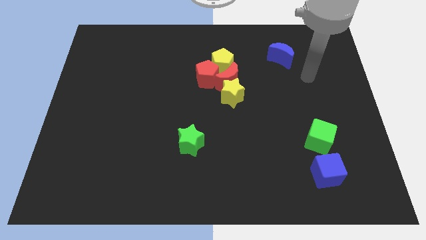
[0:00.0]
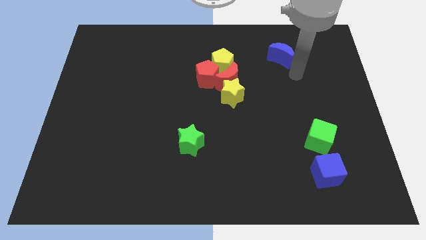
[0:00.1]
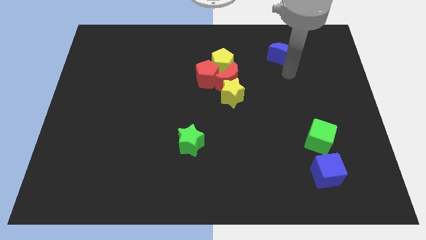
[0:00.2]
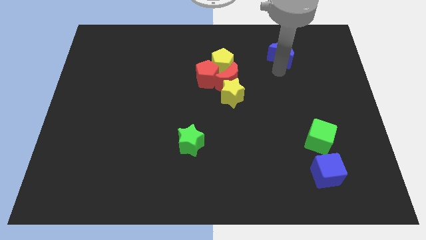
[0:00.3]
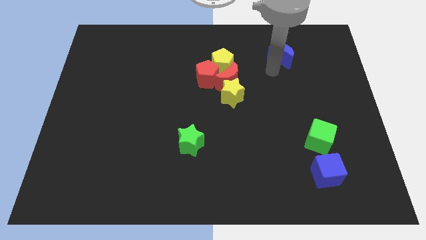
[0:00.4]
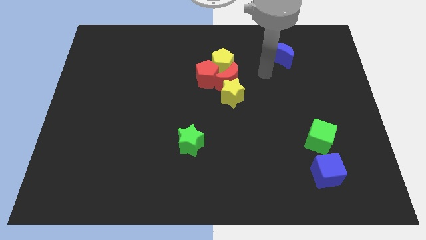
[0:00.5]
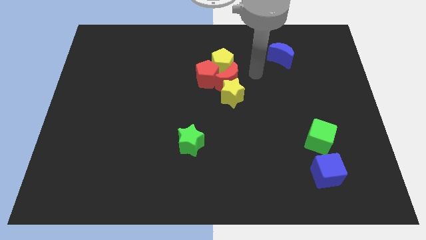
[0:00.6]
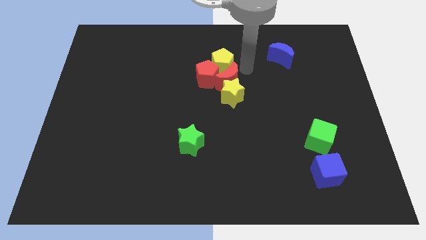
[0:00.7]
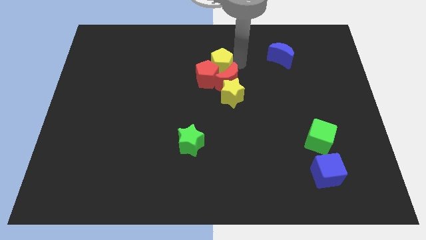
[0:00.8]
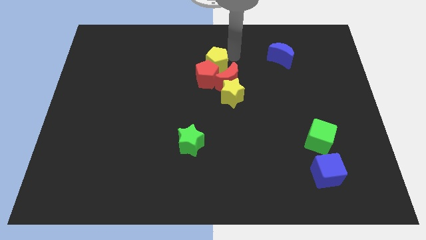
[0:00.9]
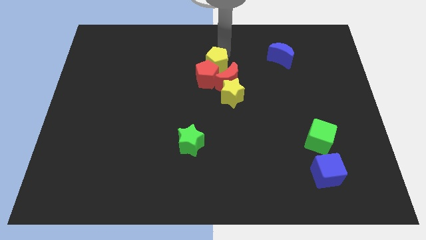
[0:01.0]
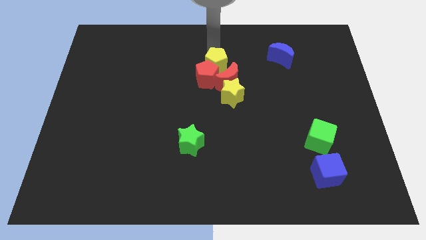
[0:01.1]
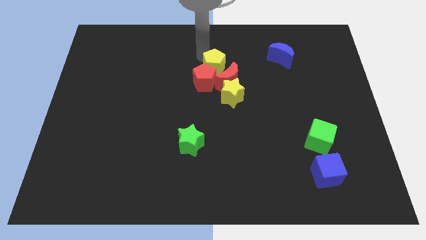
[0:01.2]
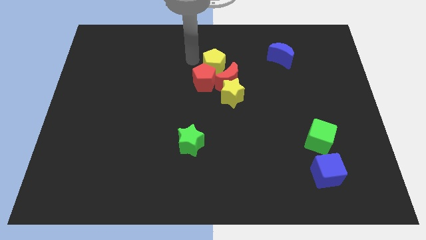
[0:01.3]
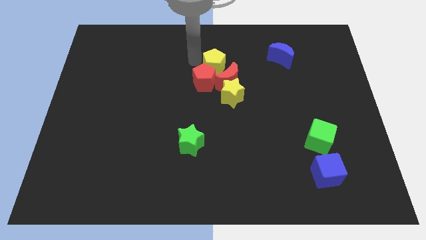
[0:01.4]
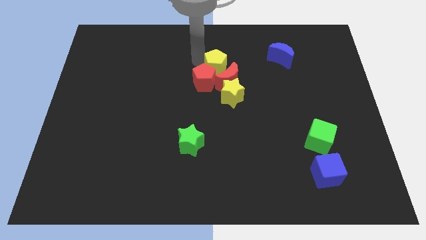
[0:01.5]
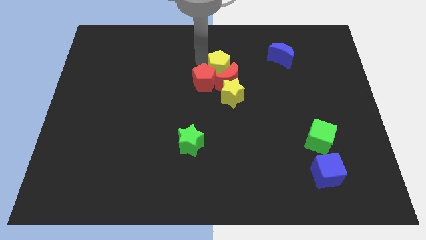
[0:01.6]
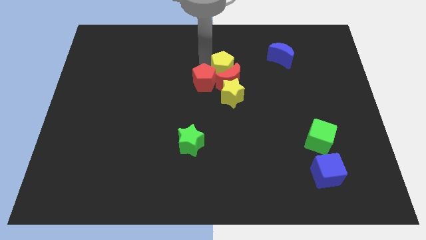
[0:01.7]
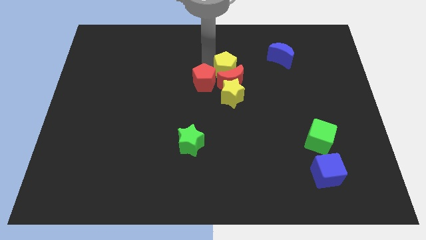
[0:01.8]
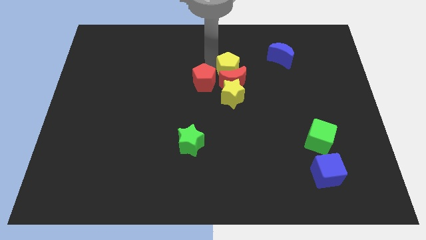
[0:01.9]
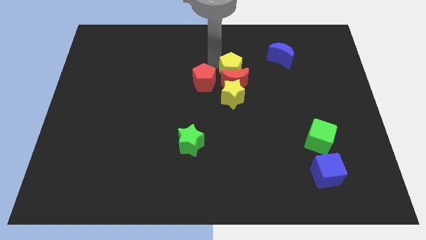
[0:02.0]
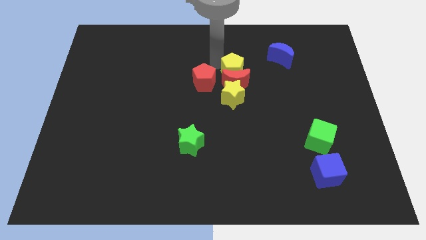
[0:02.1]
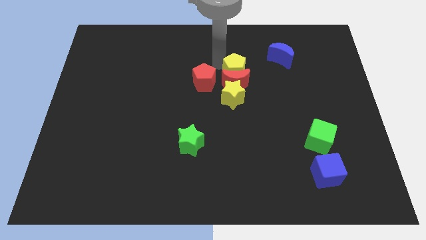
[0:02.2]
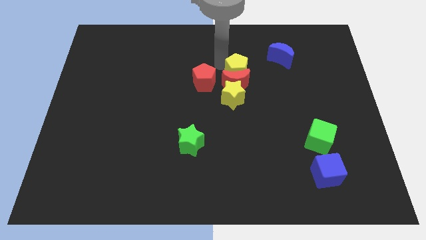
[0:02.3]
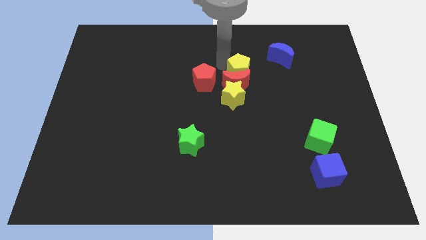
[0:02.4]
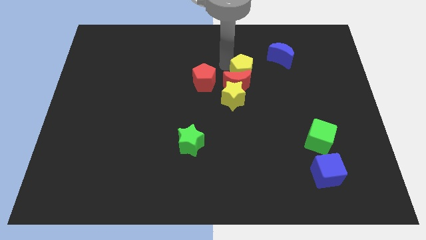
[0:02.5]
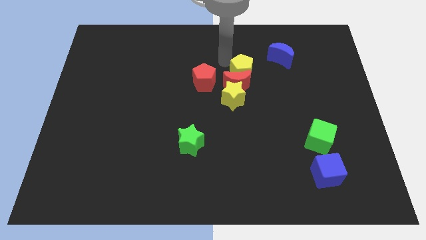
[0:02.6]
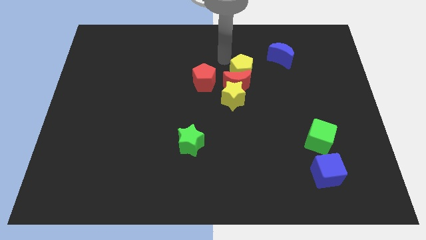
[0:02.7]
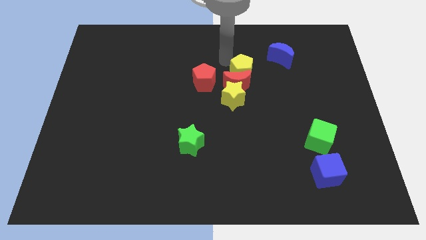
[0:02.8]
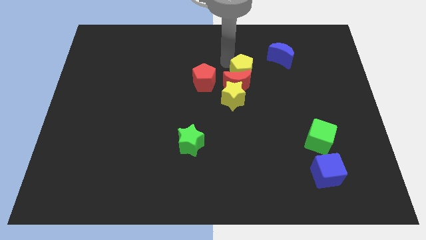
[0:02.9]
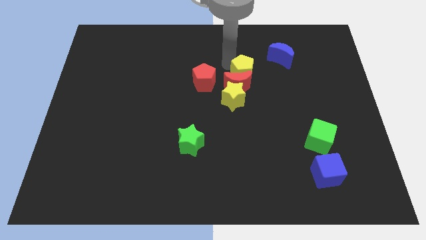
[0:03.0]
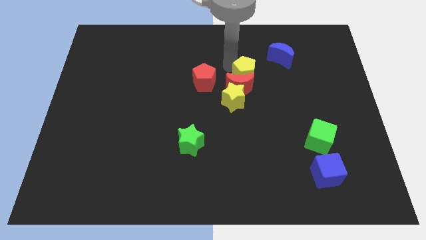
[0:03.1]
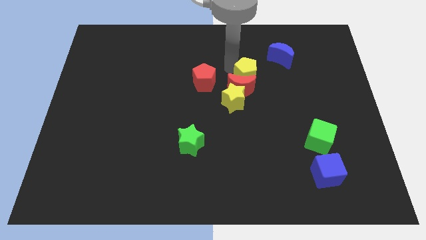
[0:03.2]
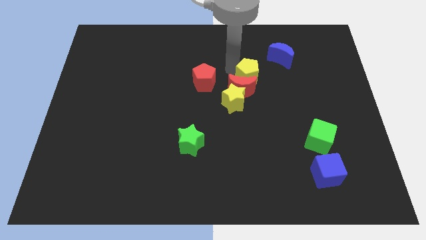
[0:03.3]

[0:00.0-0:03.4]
move the yellow pentagon slightly downwards and to the right diagonally

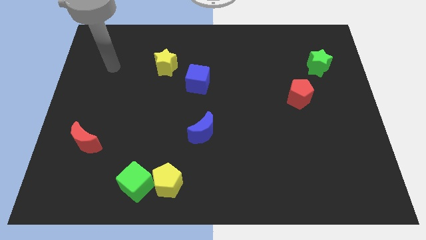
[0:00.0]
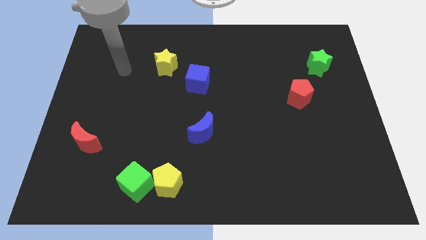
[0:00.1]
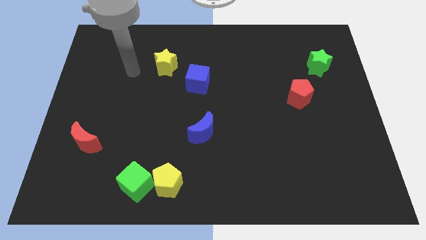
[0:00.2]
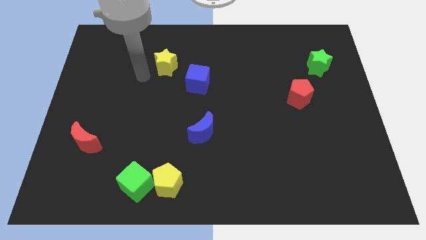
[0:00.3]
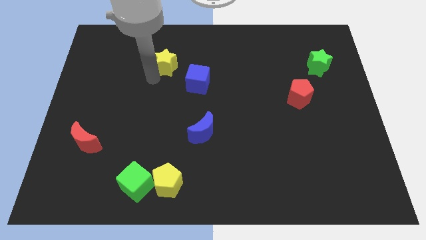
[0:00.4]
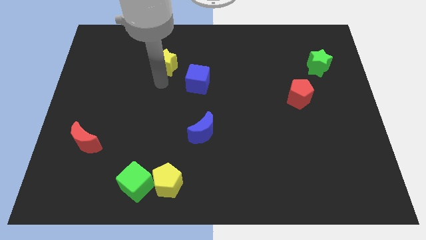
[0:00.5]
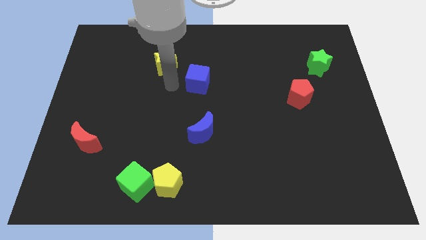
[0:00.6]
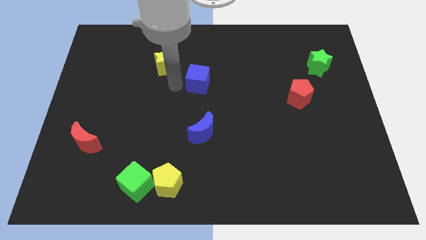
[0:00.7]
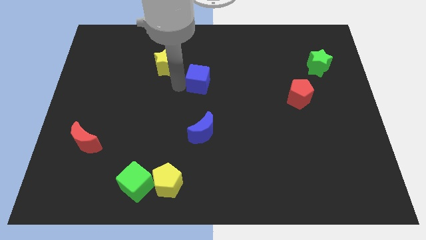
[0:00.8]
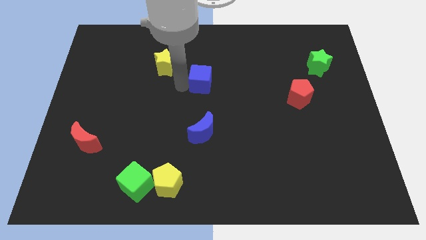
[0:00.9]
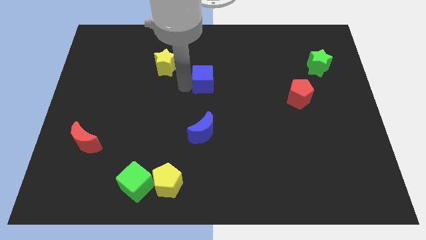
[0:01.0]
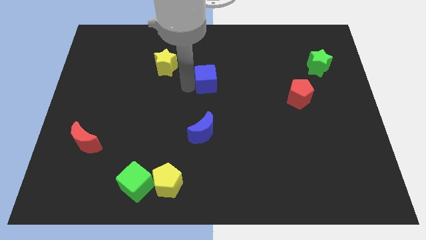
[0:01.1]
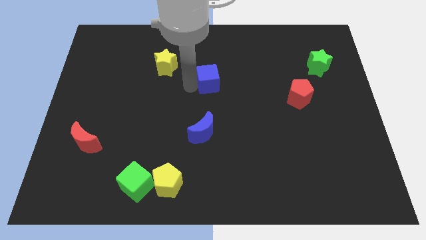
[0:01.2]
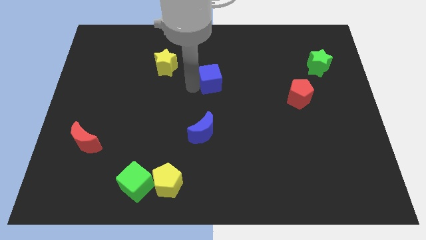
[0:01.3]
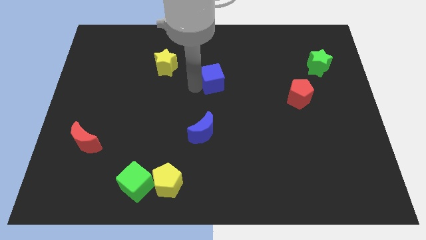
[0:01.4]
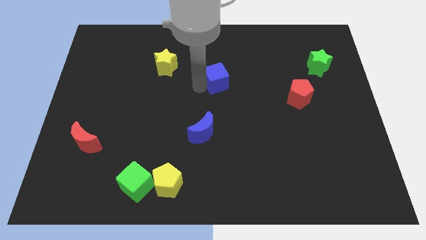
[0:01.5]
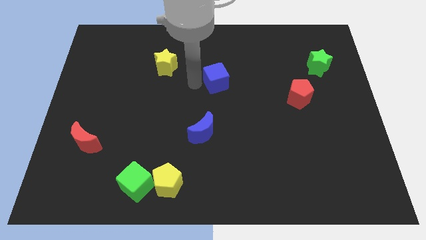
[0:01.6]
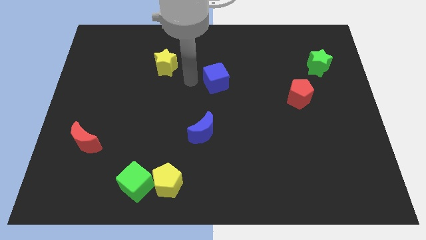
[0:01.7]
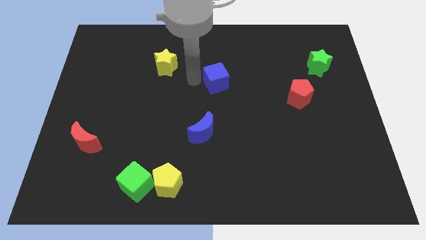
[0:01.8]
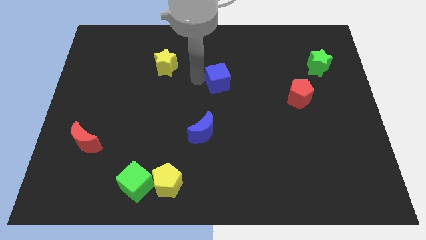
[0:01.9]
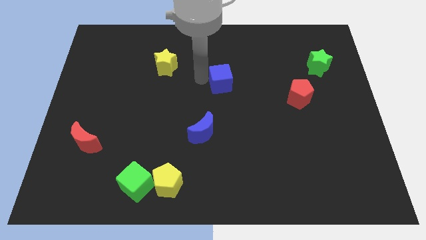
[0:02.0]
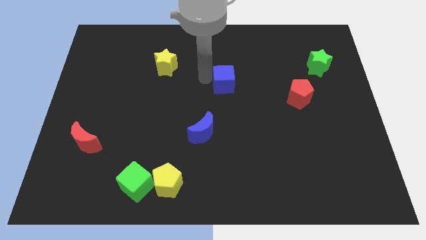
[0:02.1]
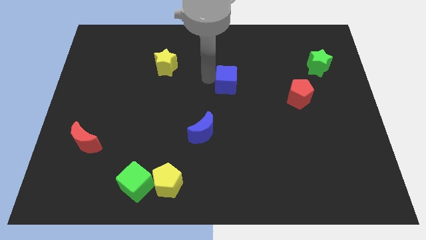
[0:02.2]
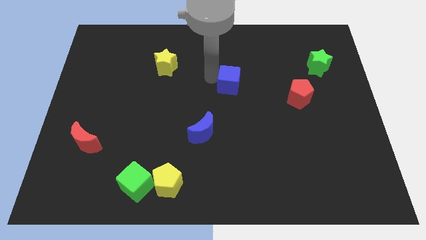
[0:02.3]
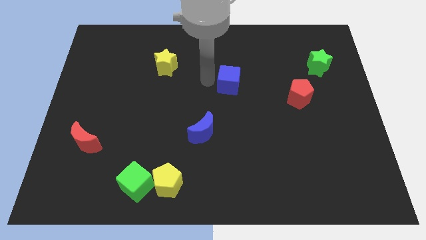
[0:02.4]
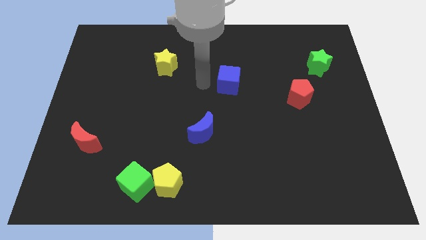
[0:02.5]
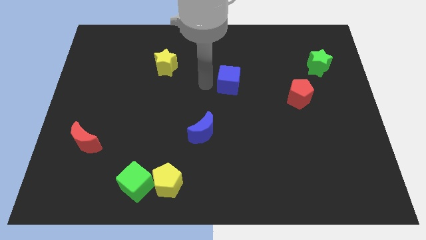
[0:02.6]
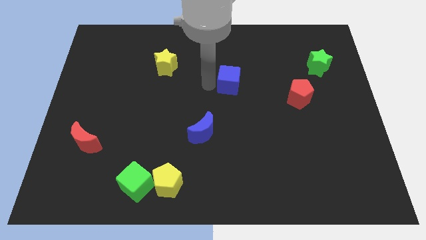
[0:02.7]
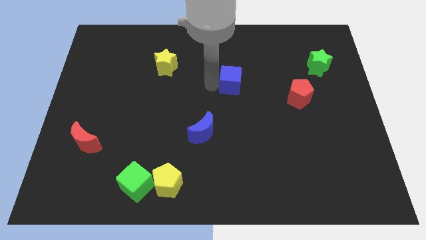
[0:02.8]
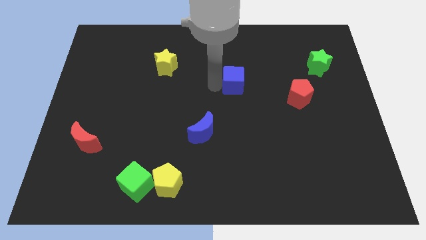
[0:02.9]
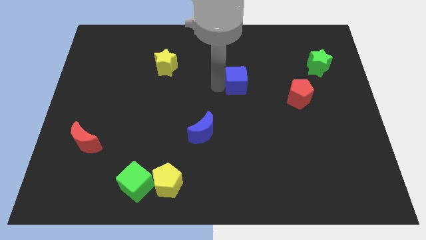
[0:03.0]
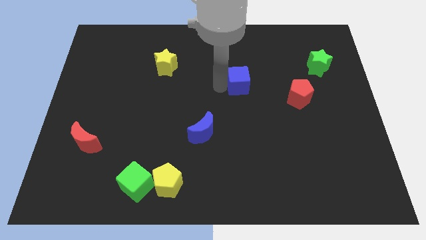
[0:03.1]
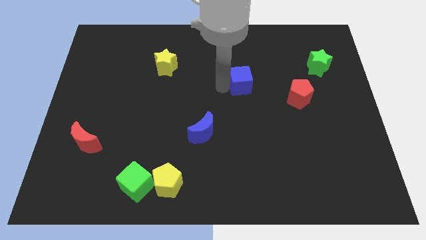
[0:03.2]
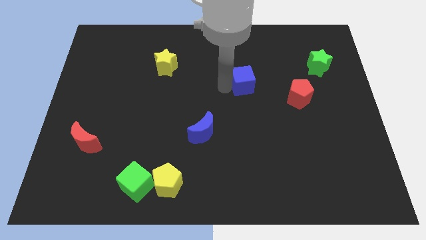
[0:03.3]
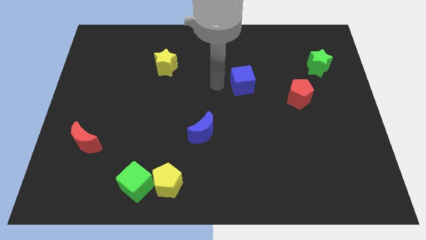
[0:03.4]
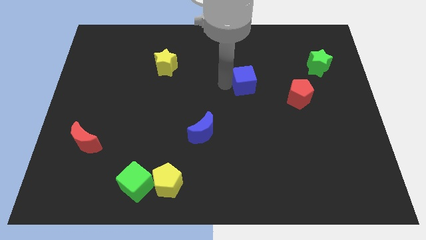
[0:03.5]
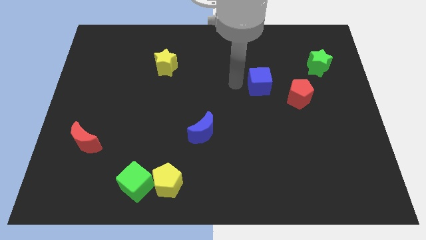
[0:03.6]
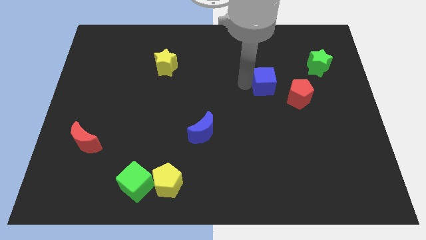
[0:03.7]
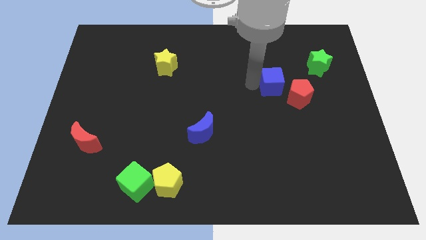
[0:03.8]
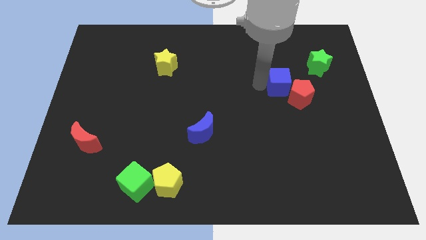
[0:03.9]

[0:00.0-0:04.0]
push the blue cube to the right

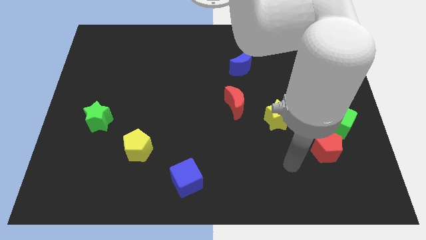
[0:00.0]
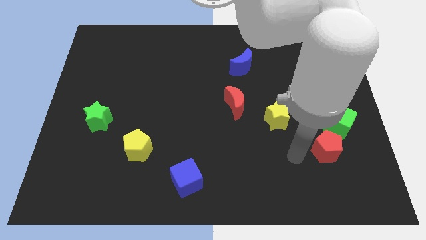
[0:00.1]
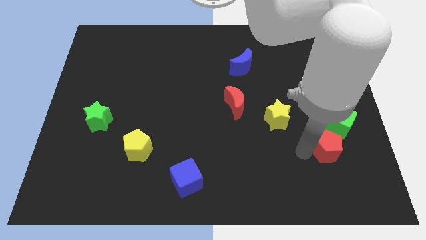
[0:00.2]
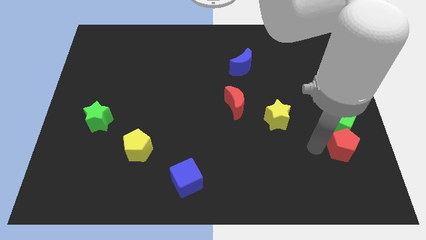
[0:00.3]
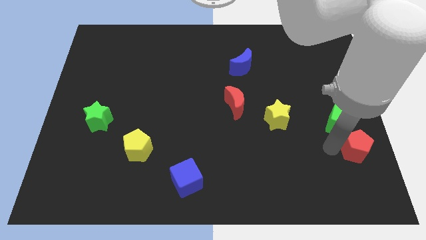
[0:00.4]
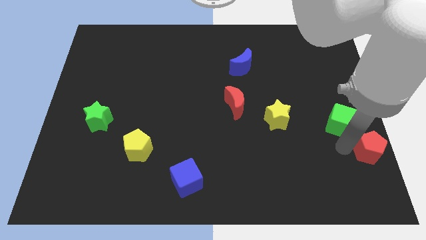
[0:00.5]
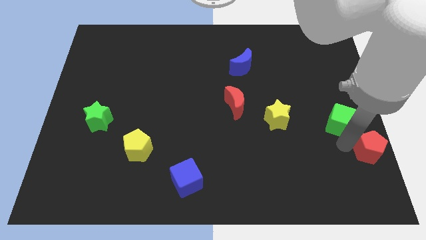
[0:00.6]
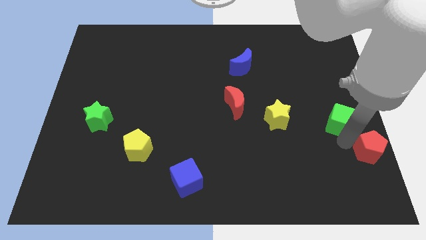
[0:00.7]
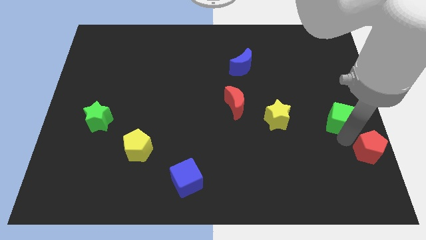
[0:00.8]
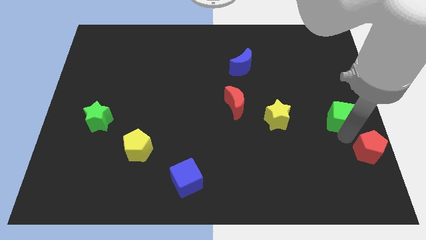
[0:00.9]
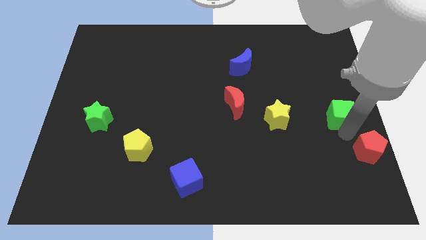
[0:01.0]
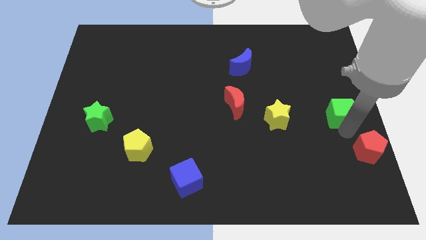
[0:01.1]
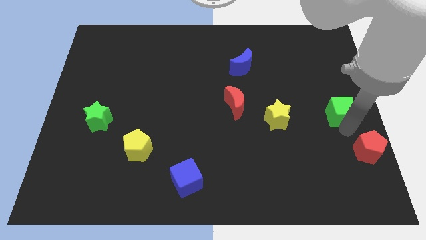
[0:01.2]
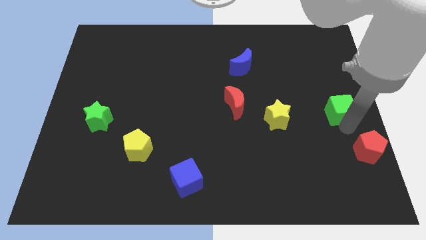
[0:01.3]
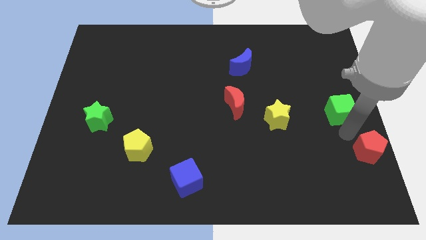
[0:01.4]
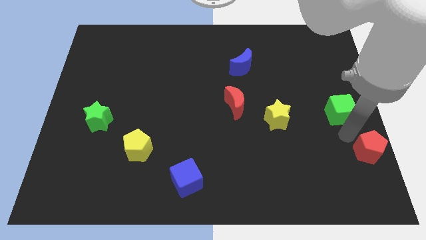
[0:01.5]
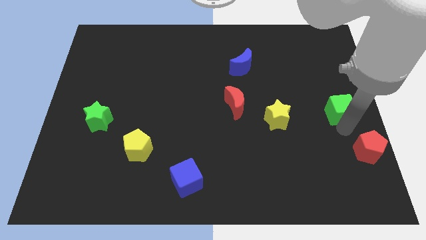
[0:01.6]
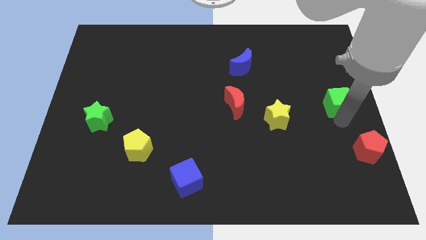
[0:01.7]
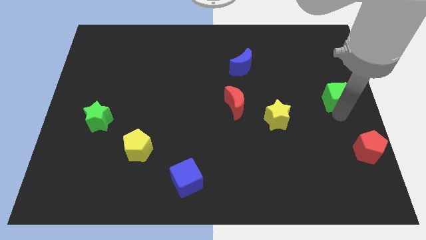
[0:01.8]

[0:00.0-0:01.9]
push the green cube upwards a bit
